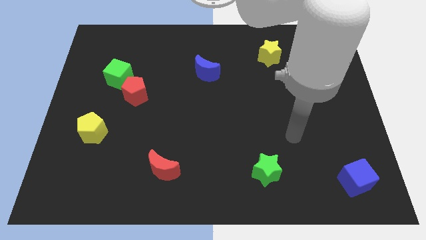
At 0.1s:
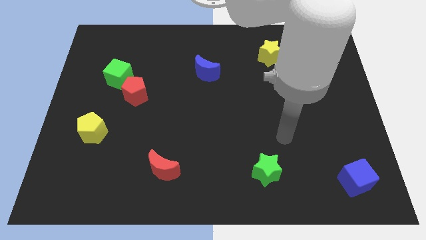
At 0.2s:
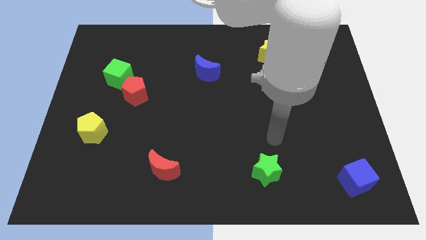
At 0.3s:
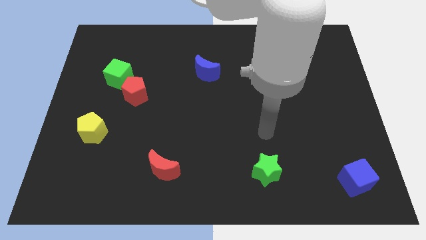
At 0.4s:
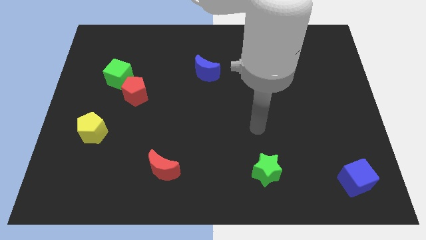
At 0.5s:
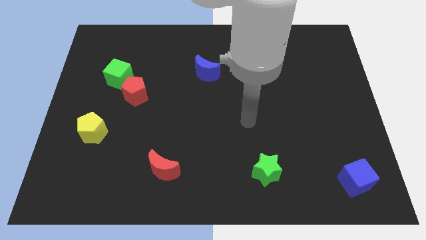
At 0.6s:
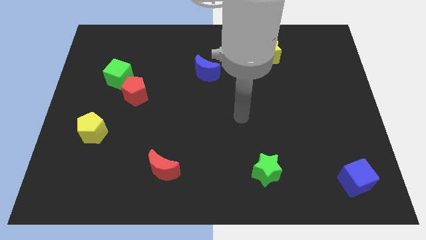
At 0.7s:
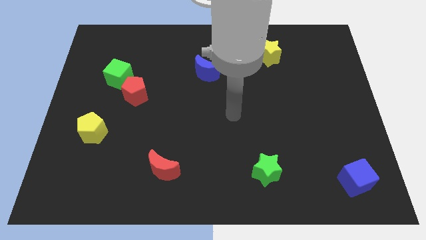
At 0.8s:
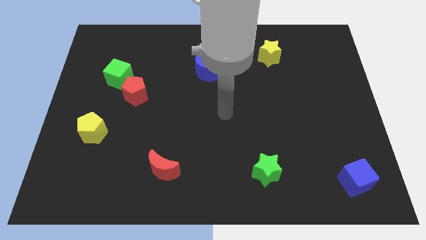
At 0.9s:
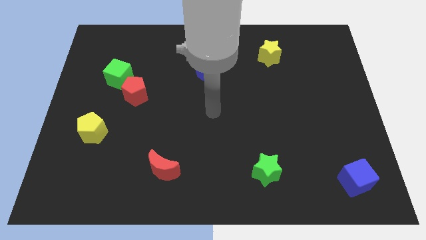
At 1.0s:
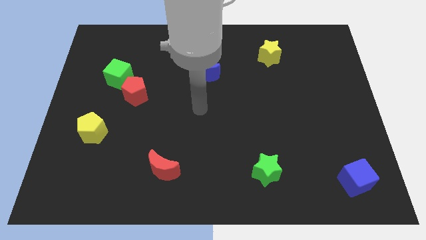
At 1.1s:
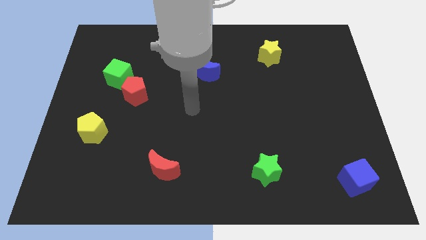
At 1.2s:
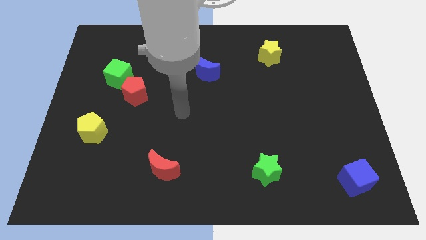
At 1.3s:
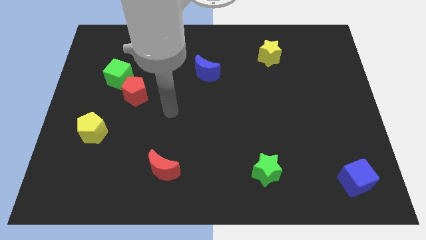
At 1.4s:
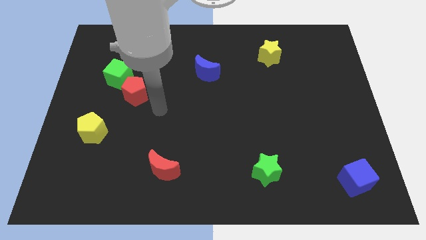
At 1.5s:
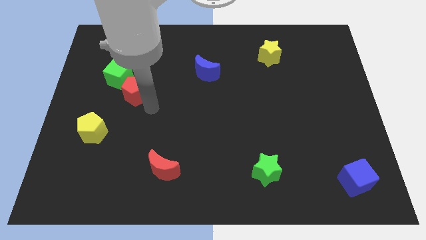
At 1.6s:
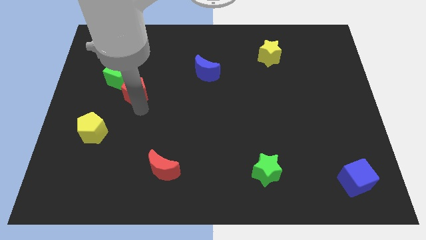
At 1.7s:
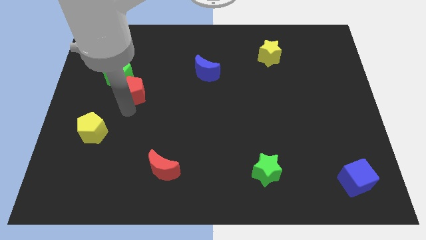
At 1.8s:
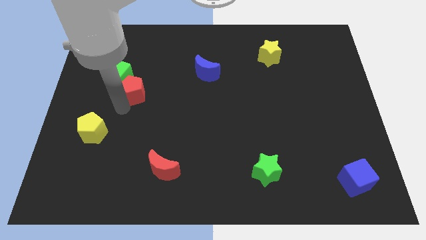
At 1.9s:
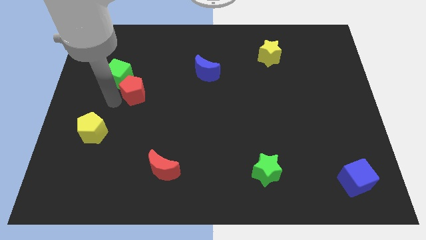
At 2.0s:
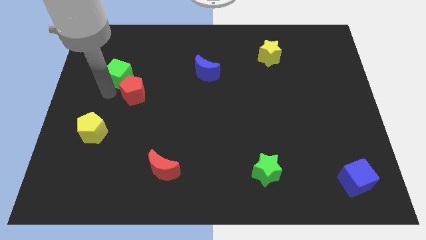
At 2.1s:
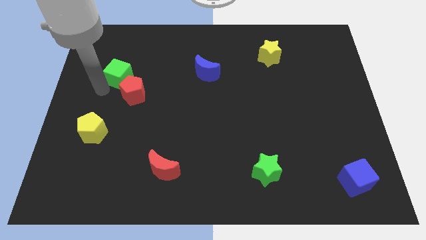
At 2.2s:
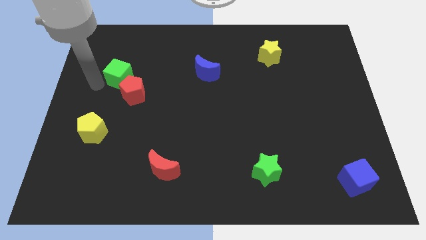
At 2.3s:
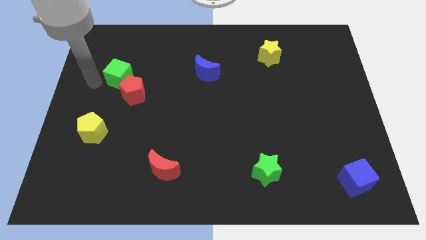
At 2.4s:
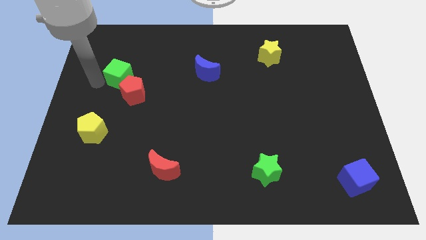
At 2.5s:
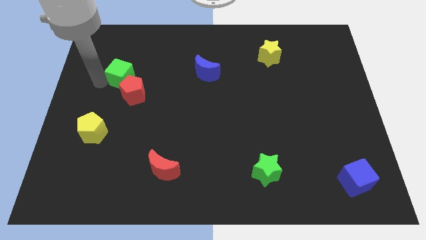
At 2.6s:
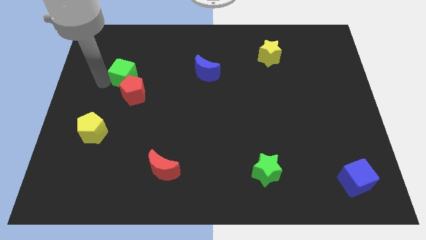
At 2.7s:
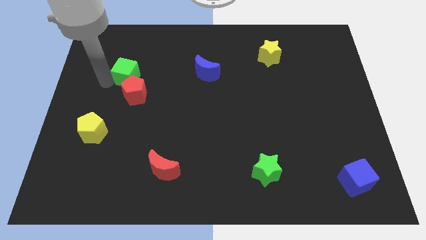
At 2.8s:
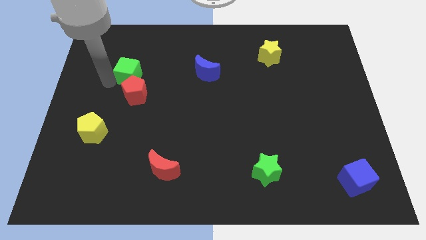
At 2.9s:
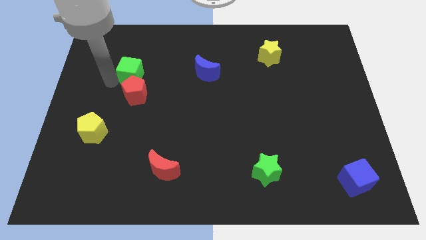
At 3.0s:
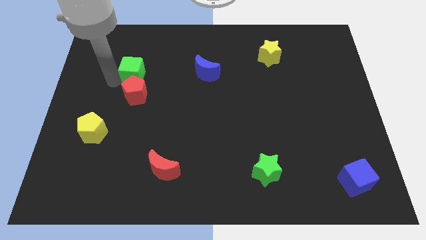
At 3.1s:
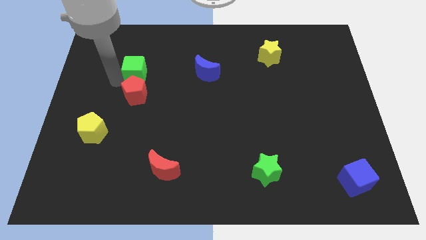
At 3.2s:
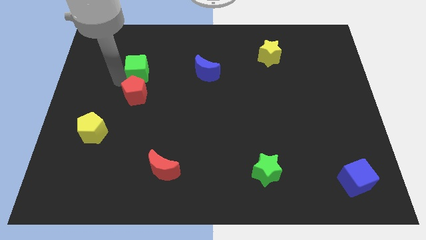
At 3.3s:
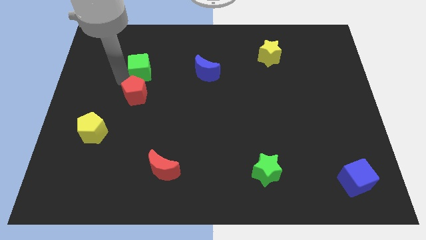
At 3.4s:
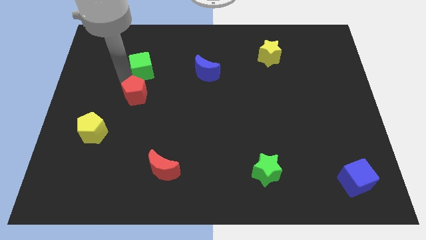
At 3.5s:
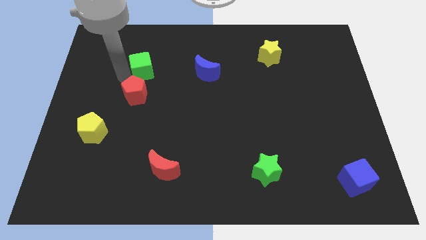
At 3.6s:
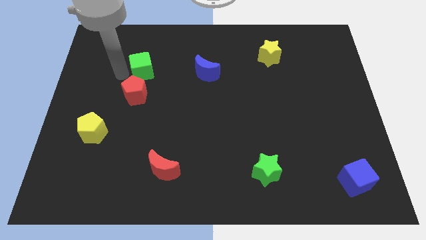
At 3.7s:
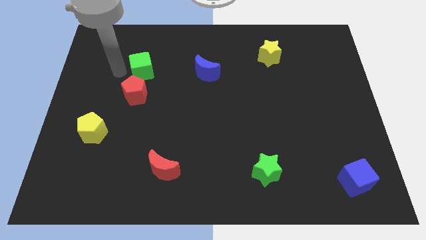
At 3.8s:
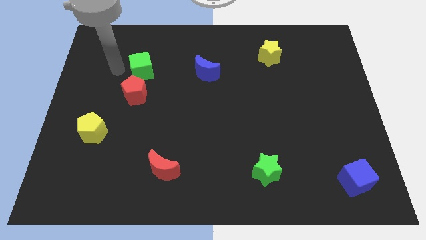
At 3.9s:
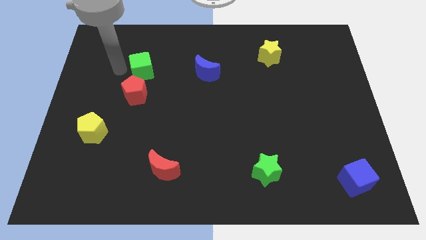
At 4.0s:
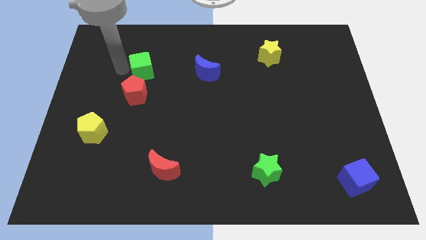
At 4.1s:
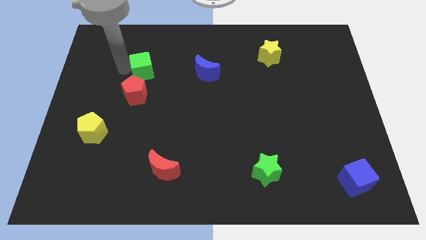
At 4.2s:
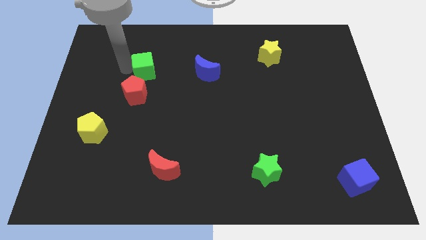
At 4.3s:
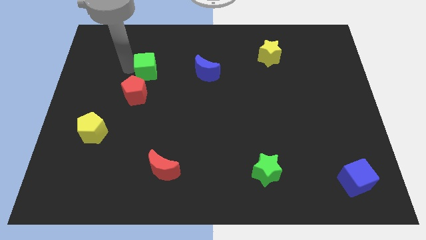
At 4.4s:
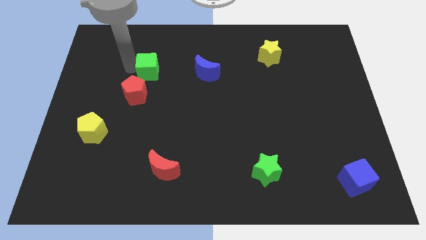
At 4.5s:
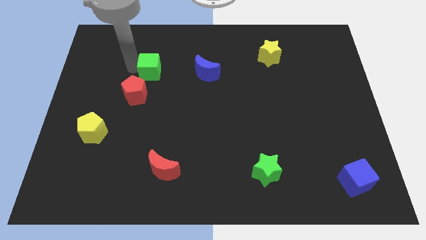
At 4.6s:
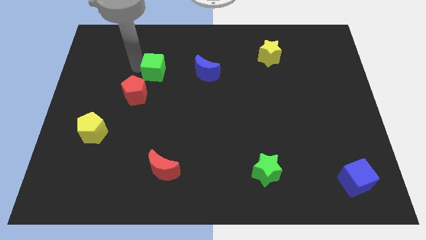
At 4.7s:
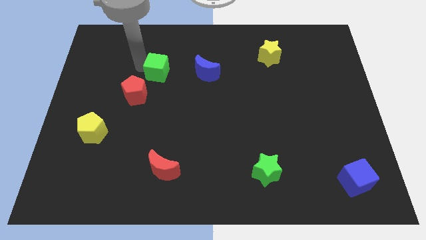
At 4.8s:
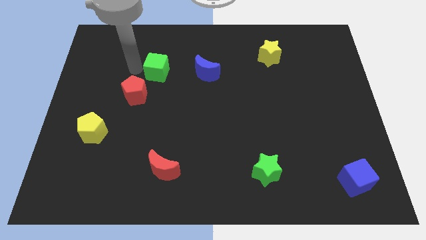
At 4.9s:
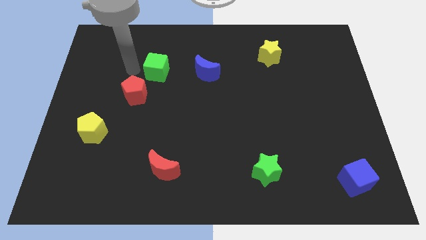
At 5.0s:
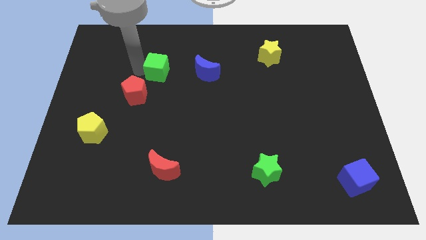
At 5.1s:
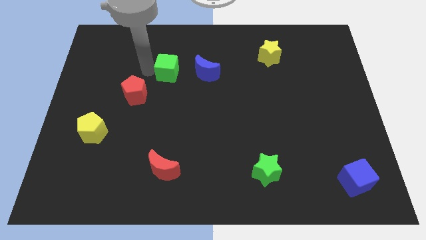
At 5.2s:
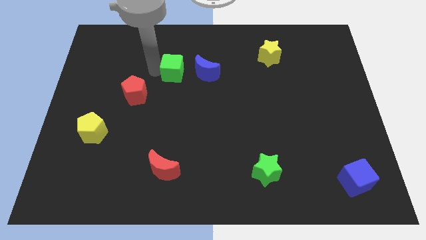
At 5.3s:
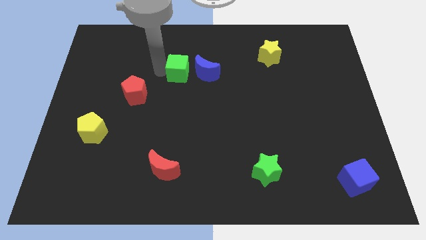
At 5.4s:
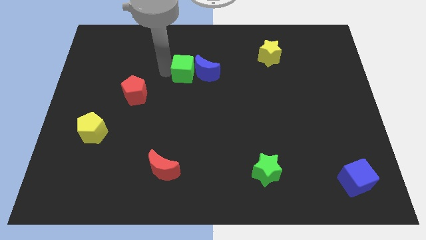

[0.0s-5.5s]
move the green cube towards the blue moon

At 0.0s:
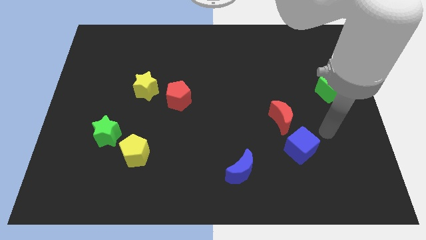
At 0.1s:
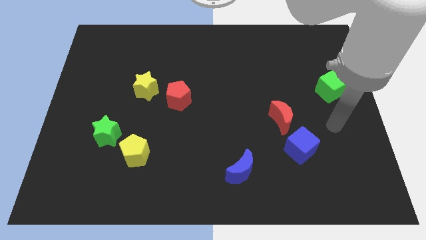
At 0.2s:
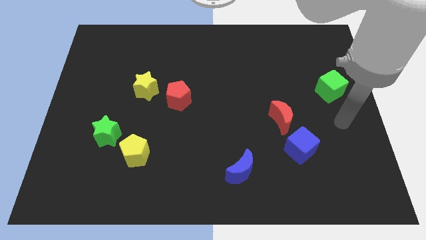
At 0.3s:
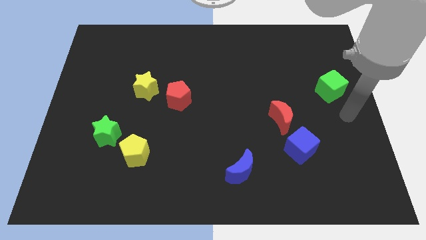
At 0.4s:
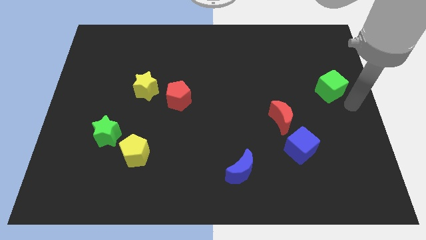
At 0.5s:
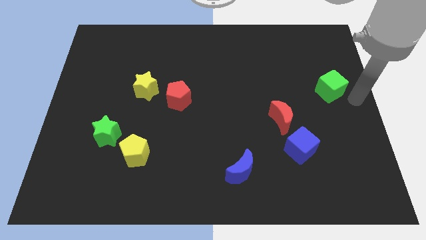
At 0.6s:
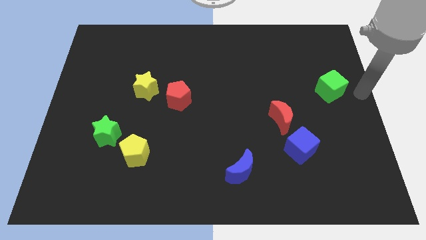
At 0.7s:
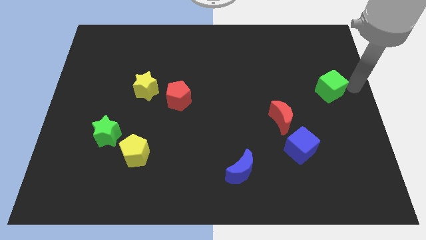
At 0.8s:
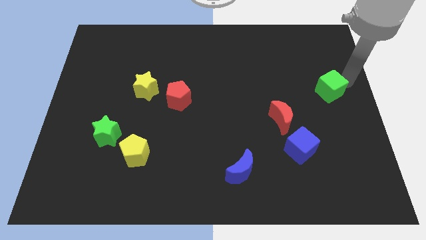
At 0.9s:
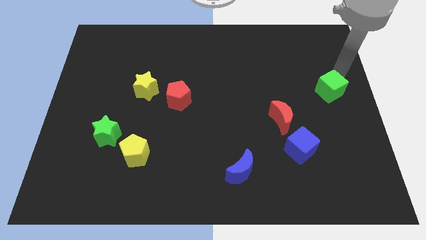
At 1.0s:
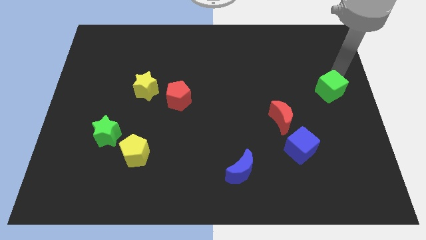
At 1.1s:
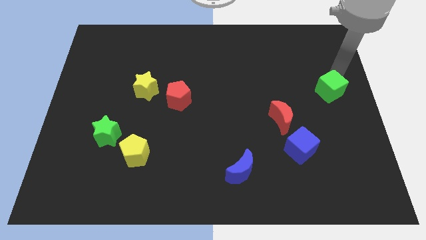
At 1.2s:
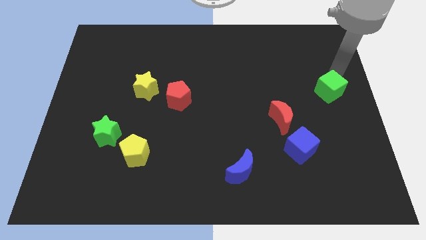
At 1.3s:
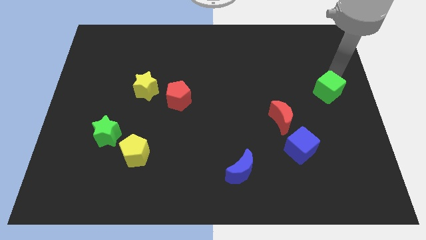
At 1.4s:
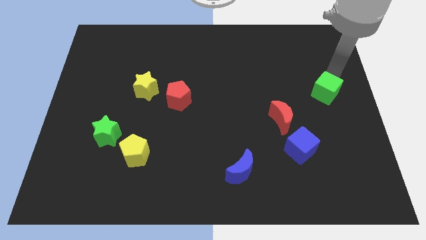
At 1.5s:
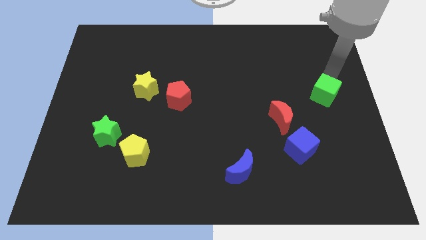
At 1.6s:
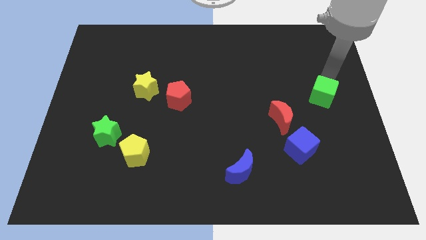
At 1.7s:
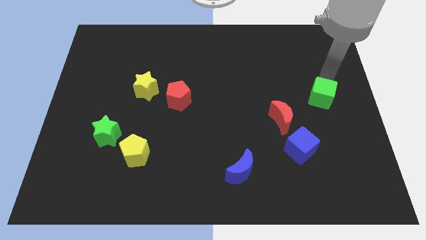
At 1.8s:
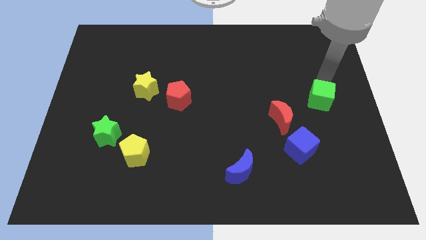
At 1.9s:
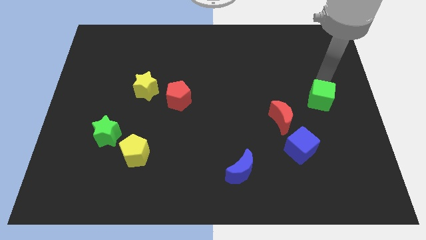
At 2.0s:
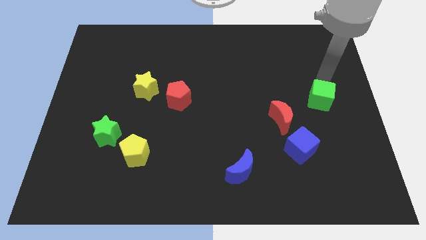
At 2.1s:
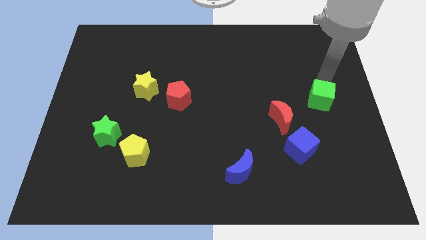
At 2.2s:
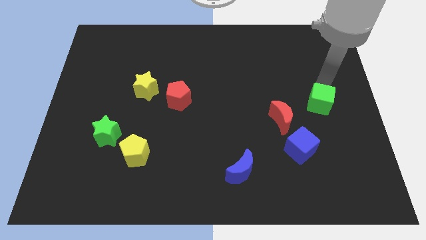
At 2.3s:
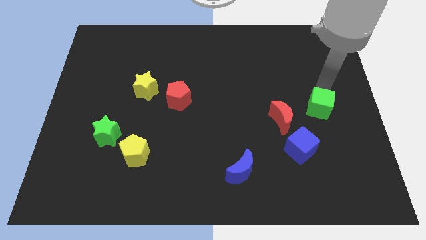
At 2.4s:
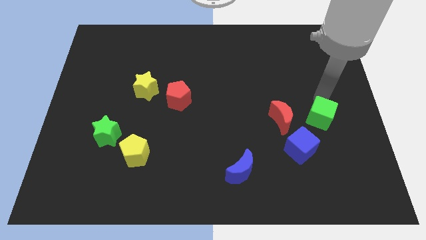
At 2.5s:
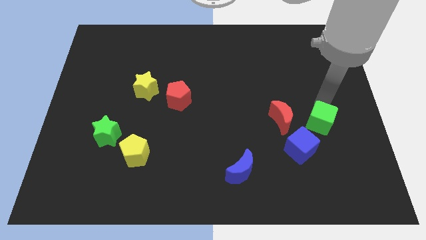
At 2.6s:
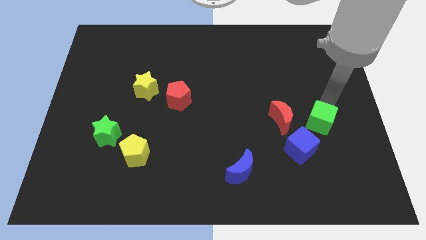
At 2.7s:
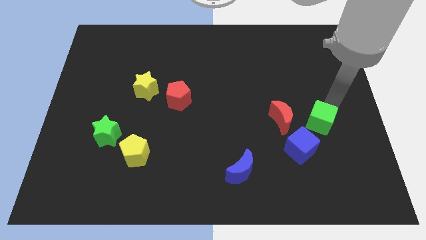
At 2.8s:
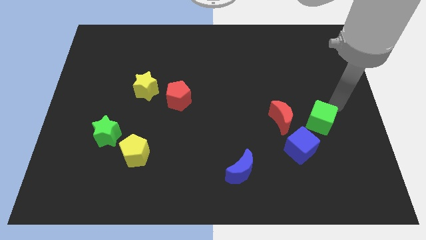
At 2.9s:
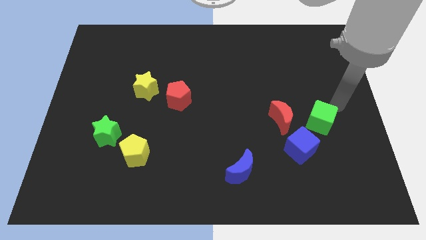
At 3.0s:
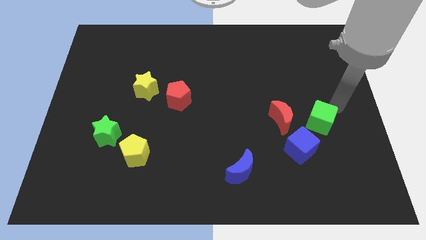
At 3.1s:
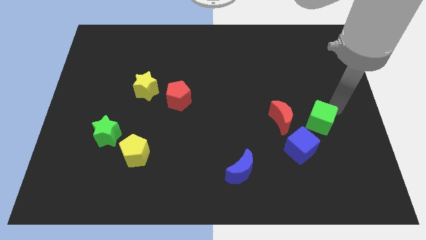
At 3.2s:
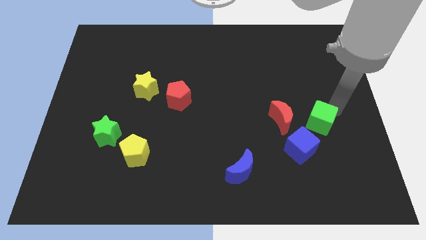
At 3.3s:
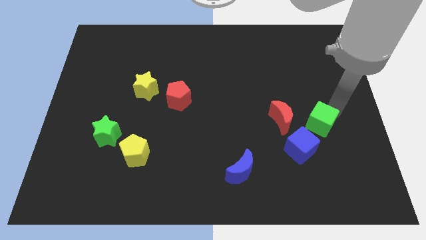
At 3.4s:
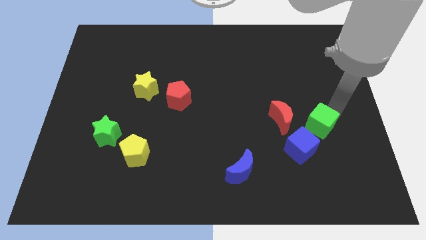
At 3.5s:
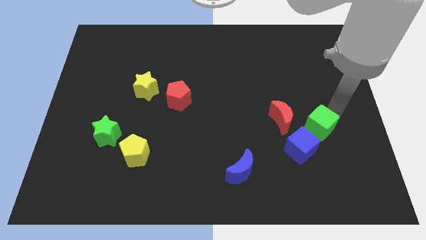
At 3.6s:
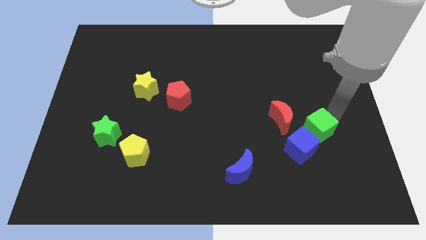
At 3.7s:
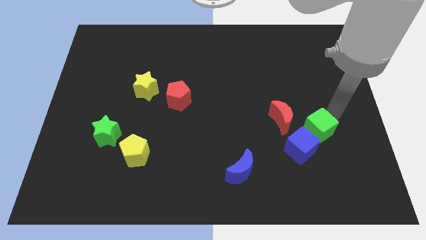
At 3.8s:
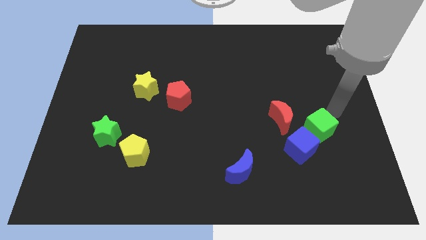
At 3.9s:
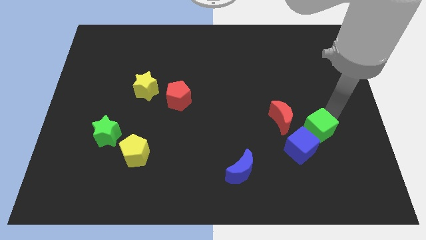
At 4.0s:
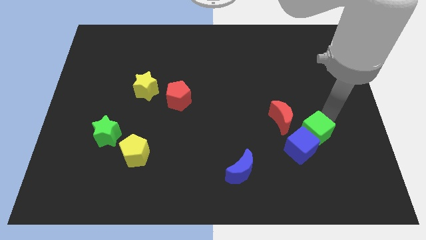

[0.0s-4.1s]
slide the green cube to the blue cube
